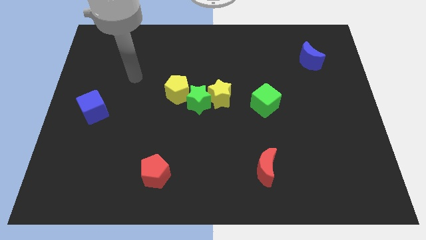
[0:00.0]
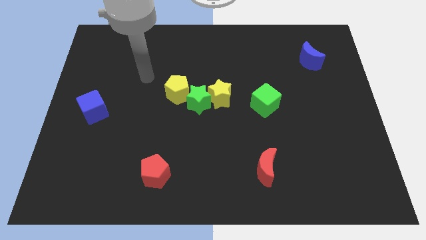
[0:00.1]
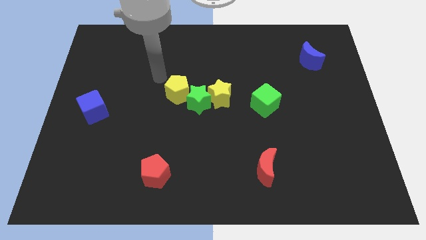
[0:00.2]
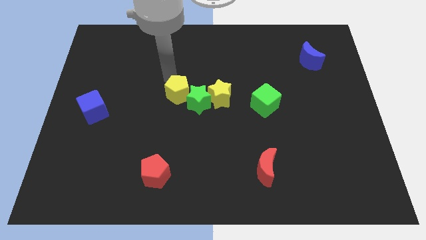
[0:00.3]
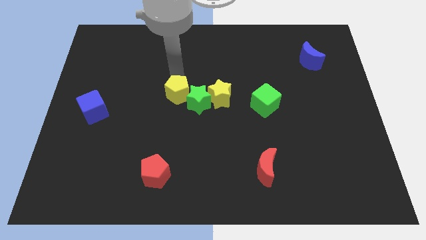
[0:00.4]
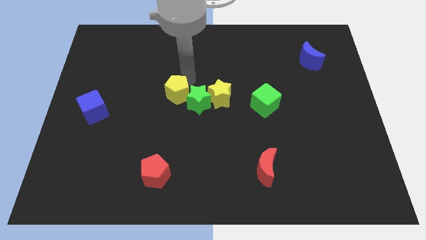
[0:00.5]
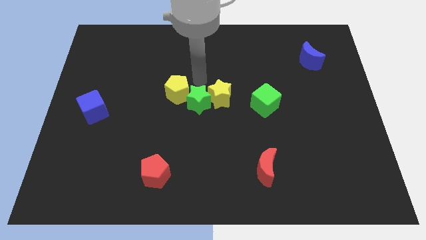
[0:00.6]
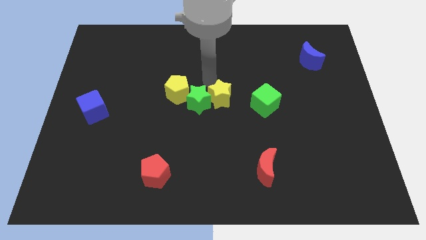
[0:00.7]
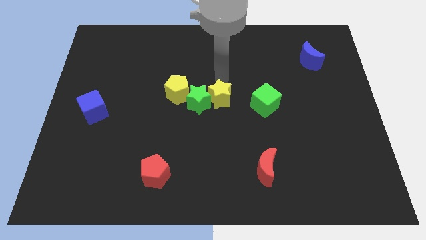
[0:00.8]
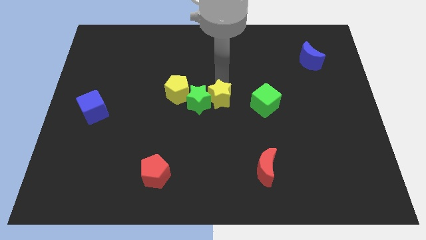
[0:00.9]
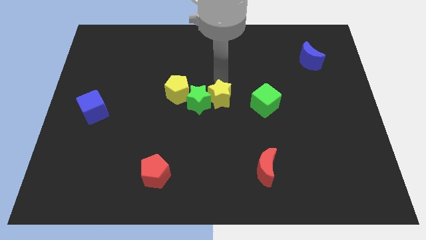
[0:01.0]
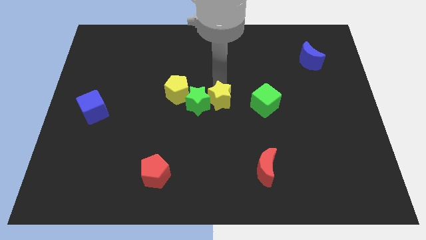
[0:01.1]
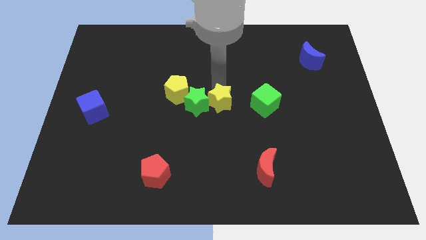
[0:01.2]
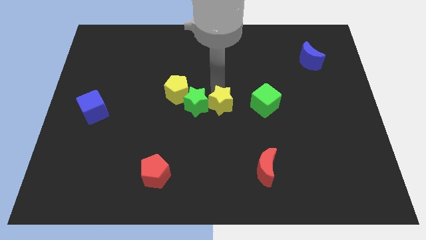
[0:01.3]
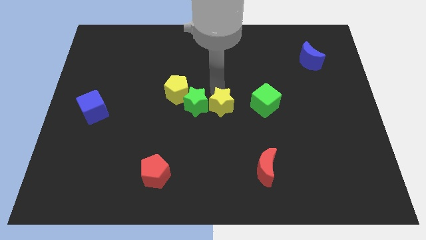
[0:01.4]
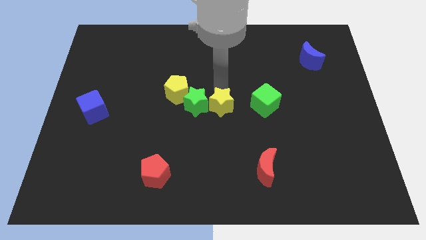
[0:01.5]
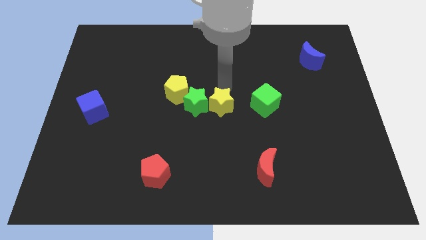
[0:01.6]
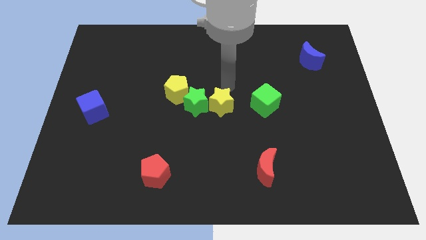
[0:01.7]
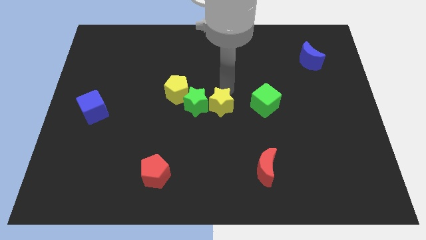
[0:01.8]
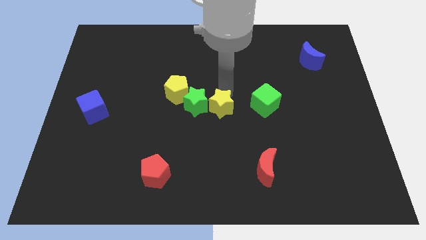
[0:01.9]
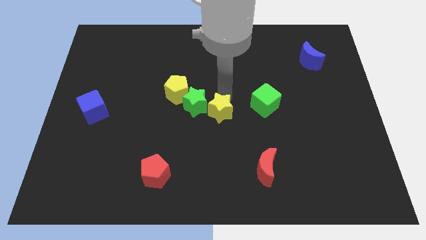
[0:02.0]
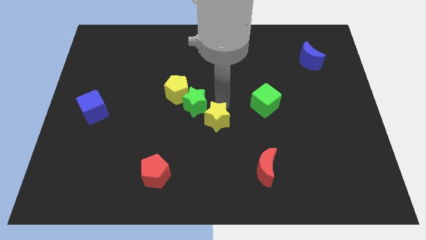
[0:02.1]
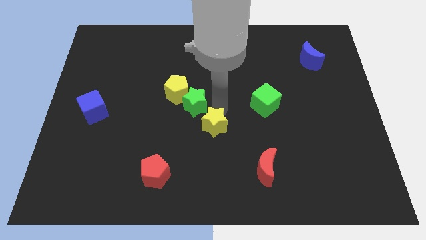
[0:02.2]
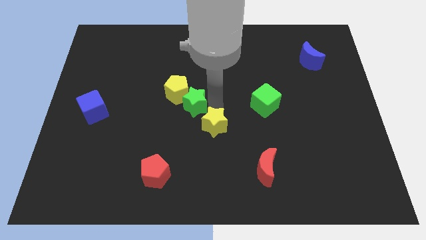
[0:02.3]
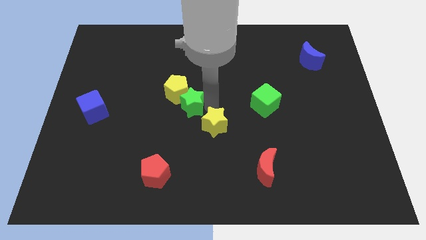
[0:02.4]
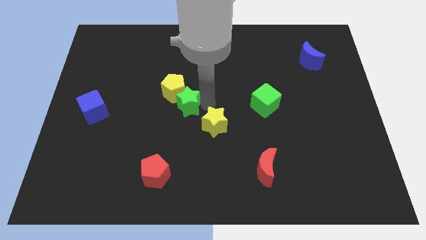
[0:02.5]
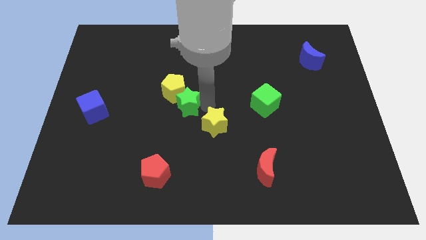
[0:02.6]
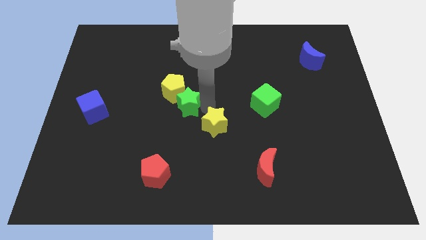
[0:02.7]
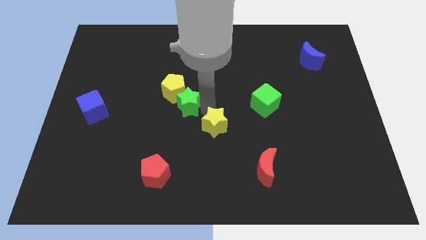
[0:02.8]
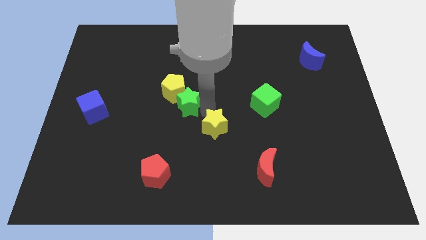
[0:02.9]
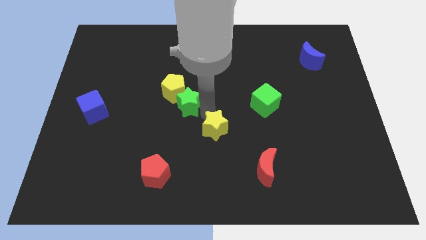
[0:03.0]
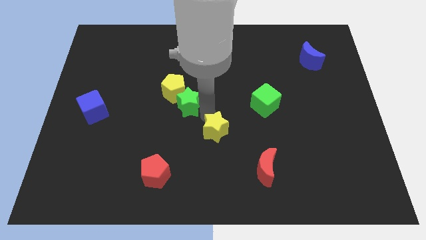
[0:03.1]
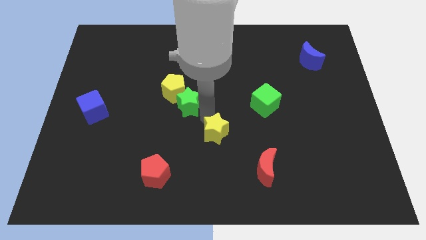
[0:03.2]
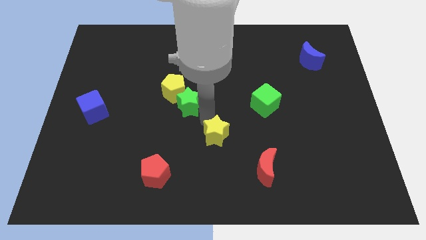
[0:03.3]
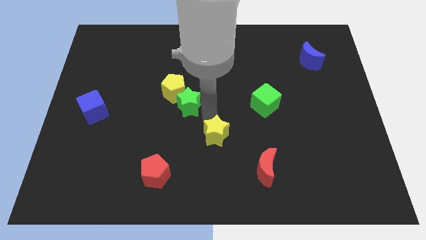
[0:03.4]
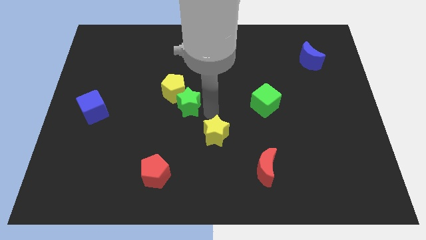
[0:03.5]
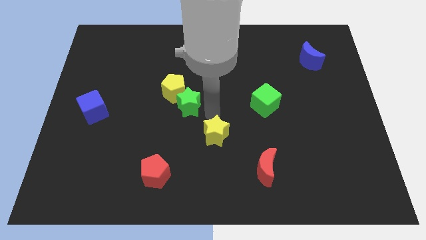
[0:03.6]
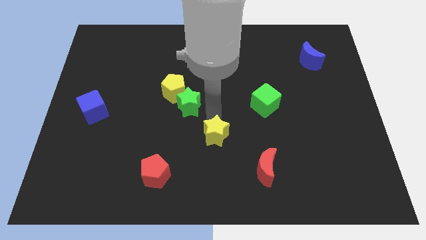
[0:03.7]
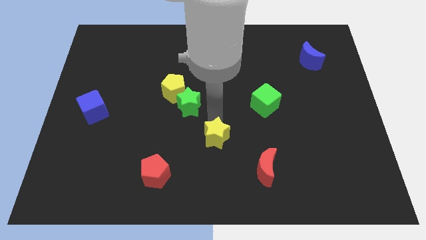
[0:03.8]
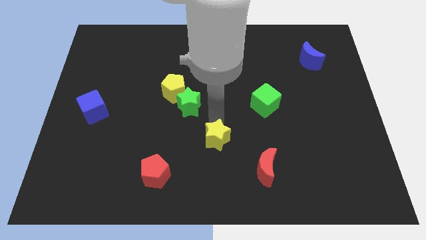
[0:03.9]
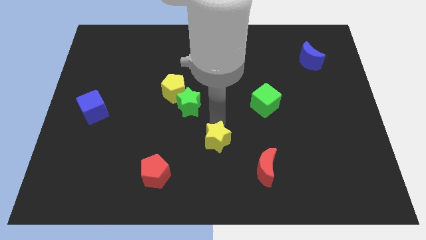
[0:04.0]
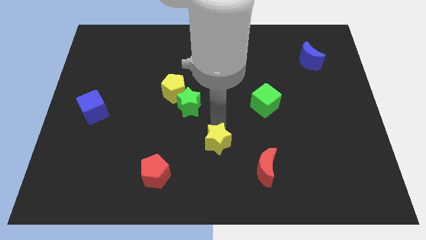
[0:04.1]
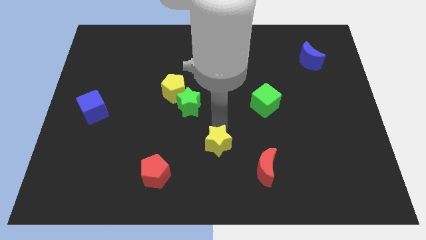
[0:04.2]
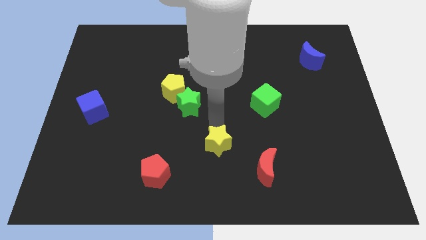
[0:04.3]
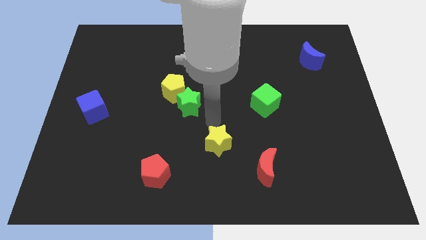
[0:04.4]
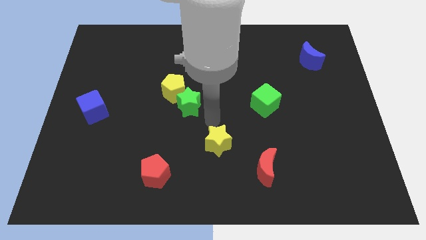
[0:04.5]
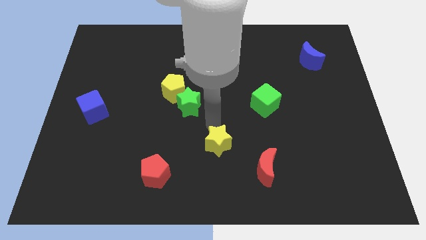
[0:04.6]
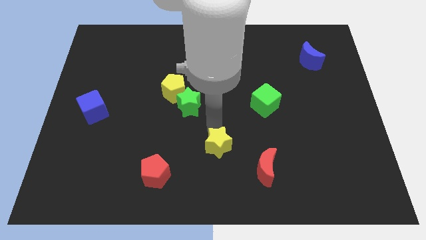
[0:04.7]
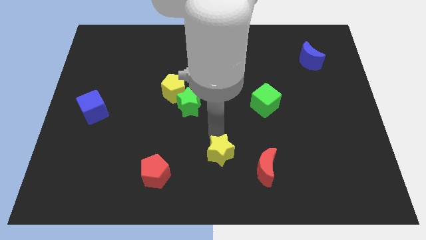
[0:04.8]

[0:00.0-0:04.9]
put the yellow star to the bottom

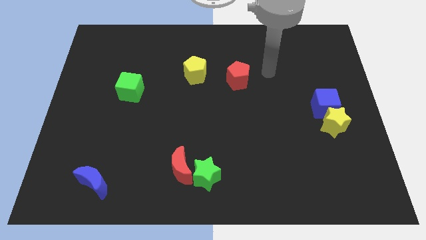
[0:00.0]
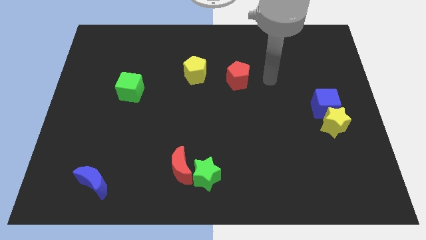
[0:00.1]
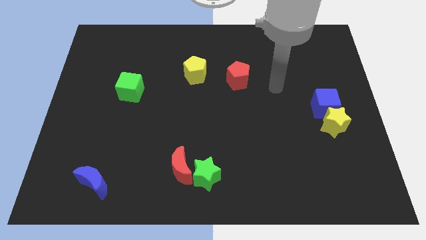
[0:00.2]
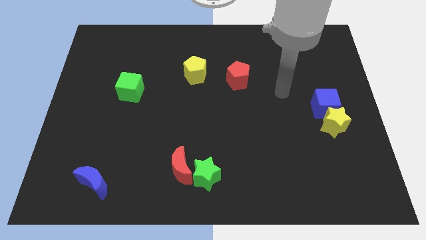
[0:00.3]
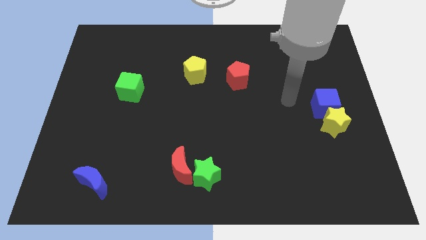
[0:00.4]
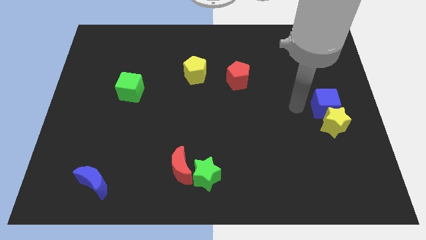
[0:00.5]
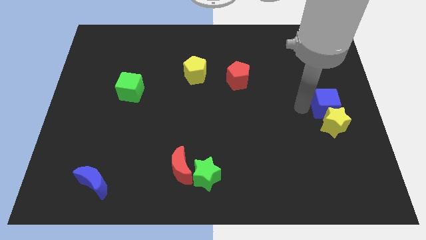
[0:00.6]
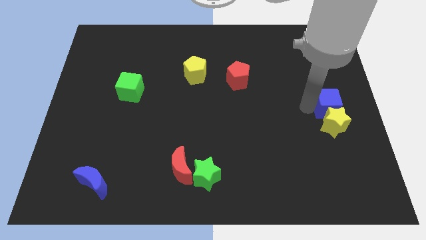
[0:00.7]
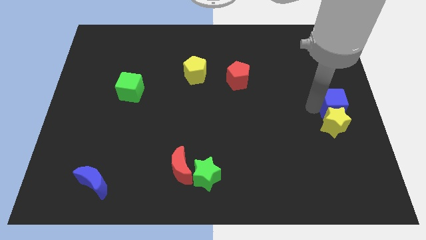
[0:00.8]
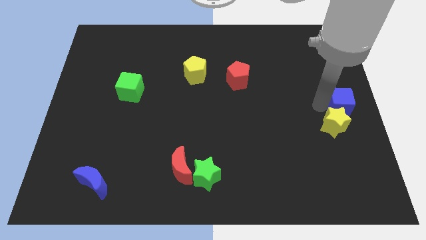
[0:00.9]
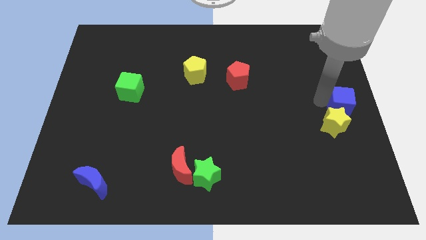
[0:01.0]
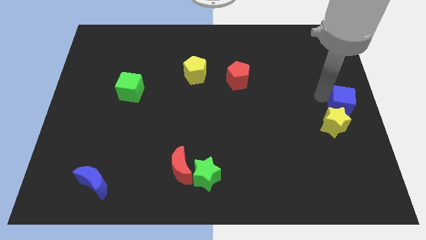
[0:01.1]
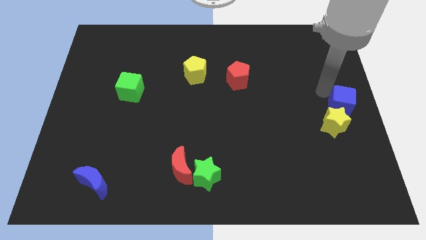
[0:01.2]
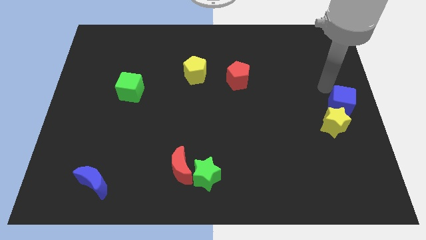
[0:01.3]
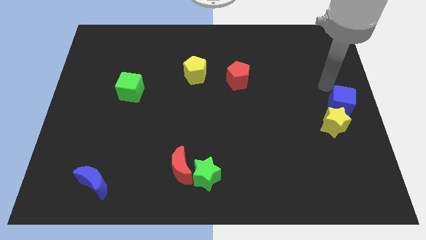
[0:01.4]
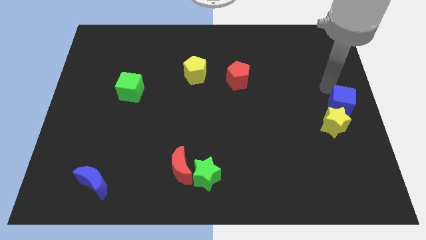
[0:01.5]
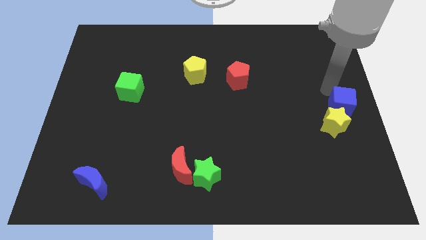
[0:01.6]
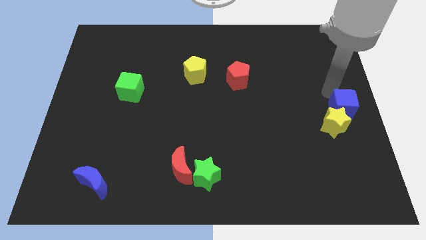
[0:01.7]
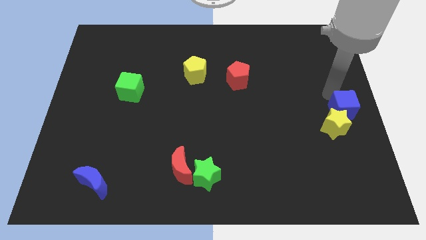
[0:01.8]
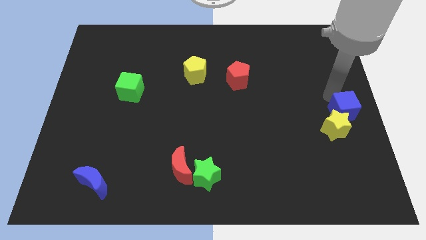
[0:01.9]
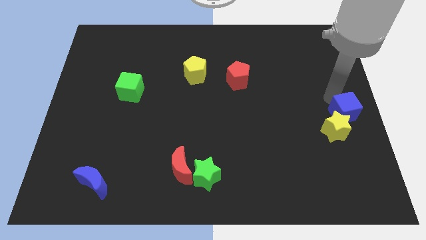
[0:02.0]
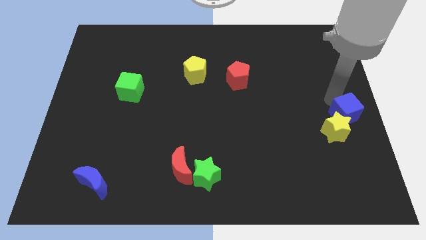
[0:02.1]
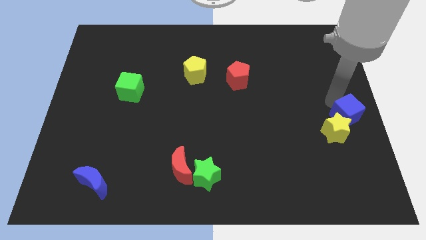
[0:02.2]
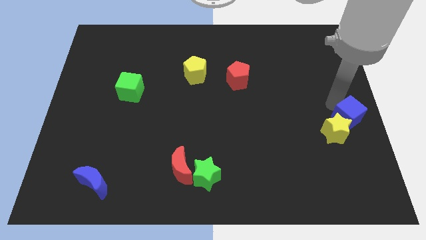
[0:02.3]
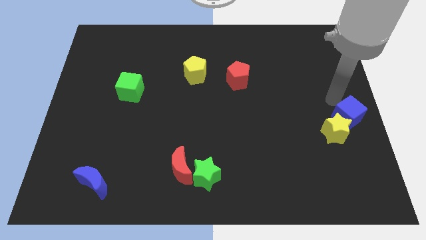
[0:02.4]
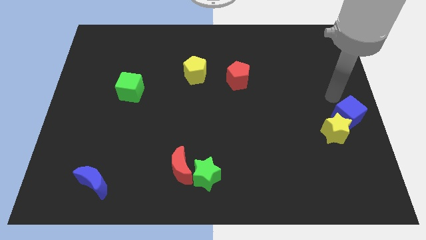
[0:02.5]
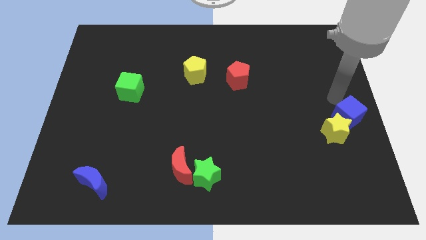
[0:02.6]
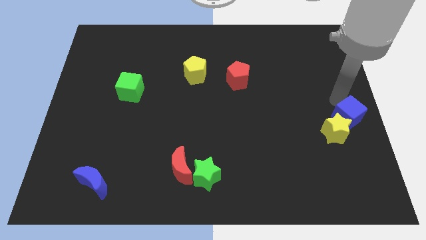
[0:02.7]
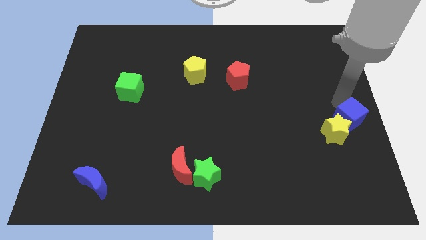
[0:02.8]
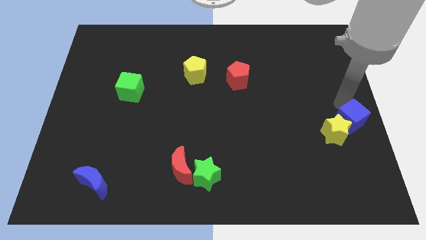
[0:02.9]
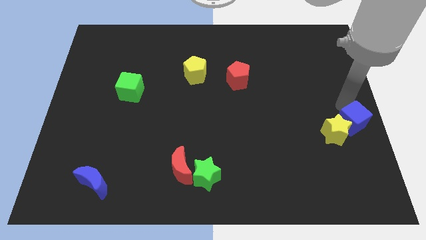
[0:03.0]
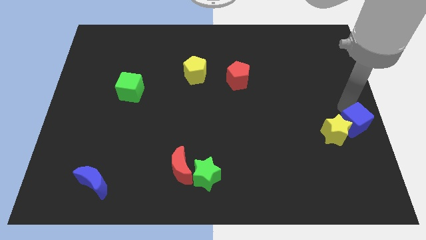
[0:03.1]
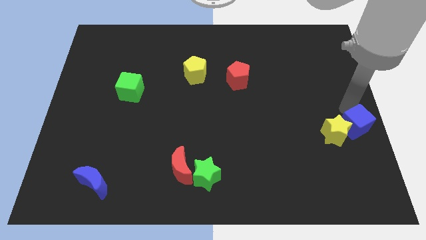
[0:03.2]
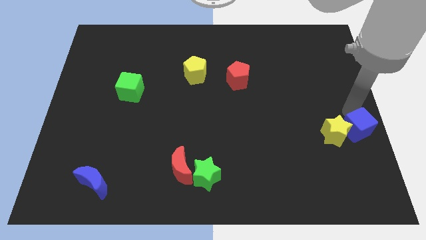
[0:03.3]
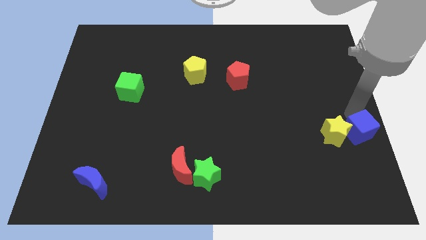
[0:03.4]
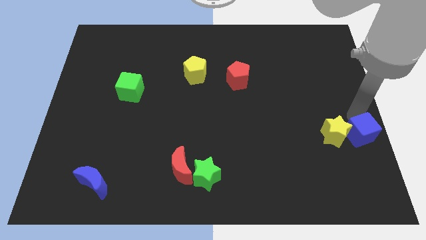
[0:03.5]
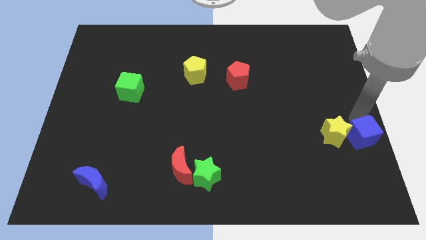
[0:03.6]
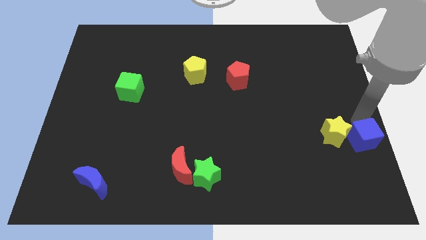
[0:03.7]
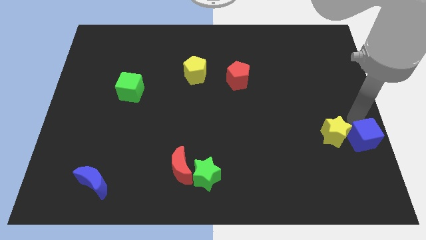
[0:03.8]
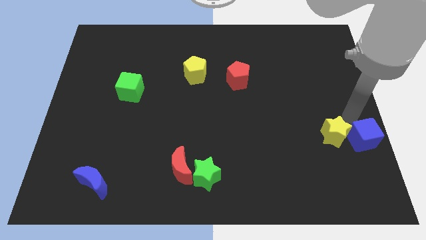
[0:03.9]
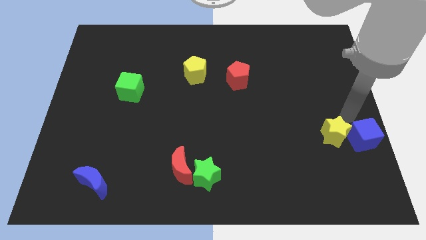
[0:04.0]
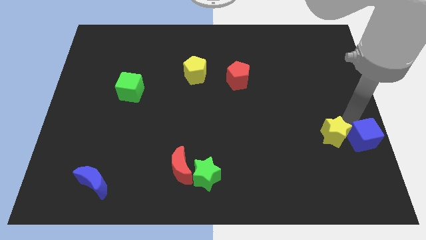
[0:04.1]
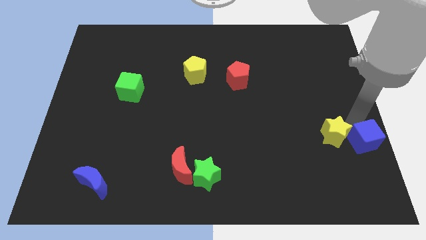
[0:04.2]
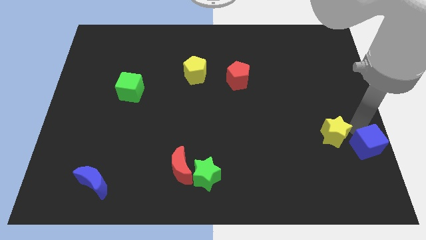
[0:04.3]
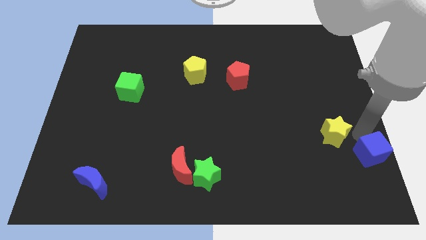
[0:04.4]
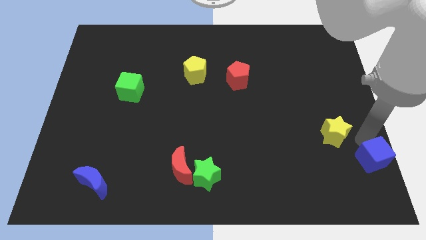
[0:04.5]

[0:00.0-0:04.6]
put the blue cube to the bottom right of the board
